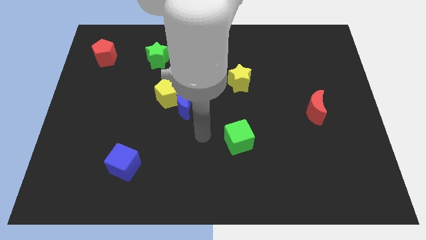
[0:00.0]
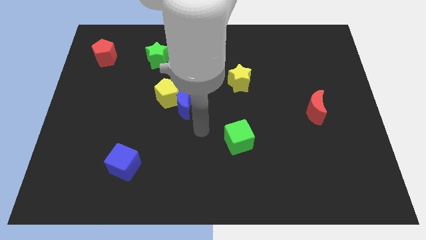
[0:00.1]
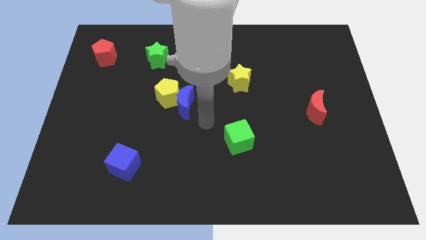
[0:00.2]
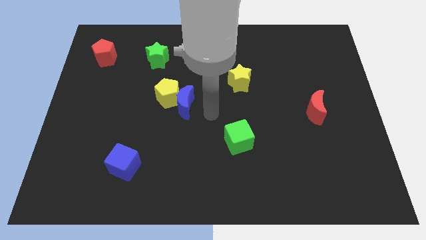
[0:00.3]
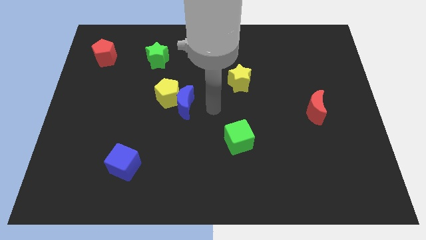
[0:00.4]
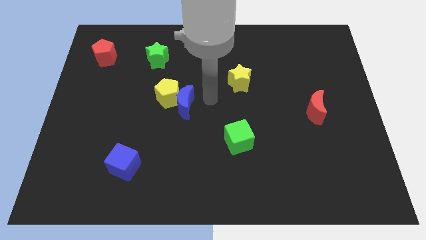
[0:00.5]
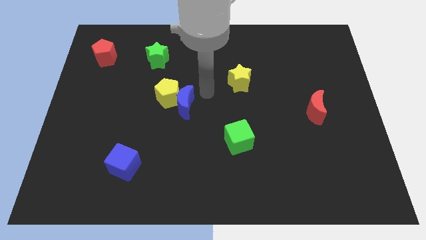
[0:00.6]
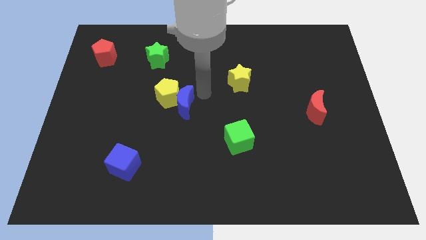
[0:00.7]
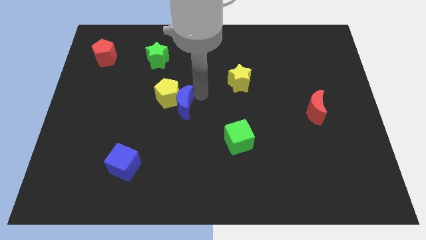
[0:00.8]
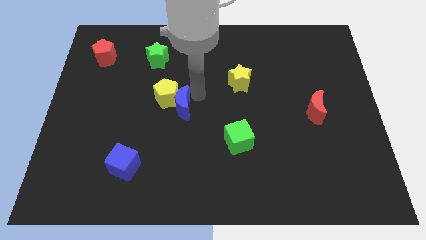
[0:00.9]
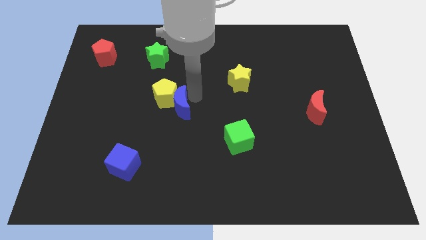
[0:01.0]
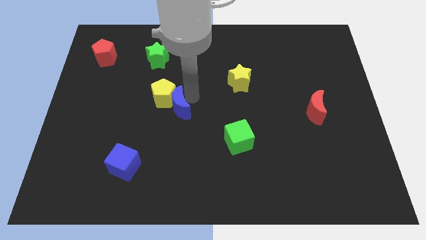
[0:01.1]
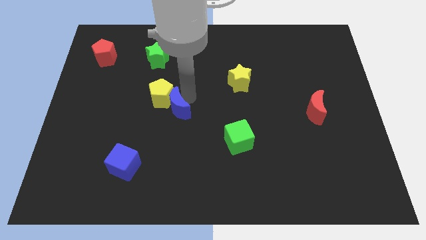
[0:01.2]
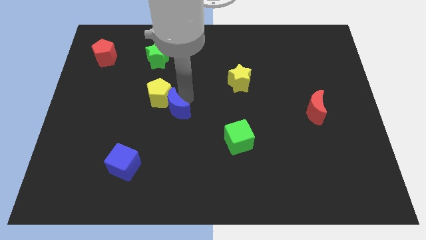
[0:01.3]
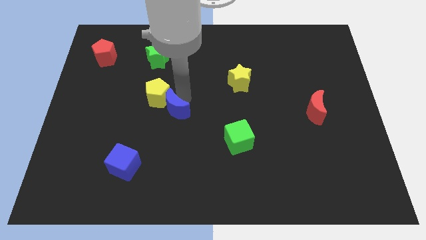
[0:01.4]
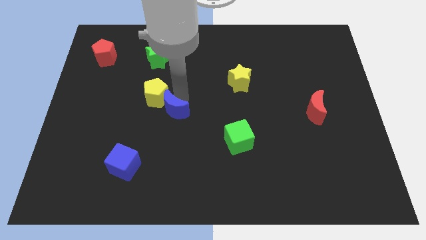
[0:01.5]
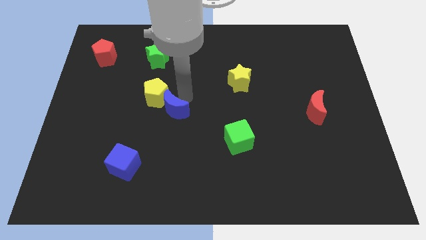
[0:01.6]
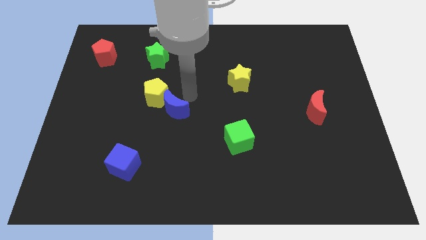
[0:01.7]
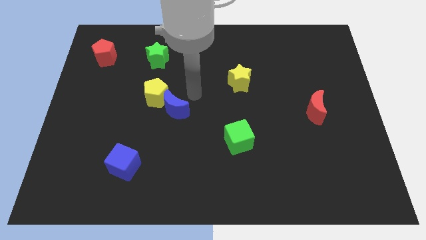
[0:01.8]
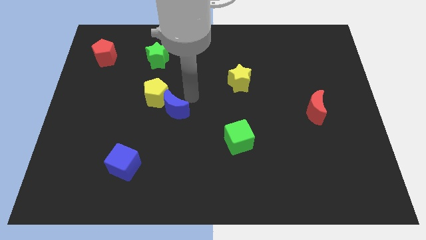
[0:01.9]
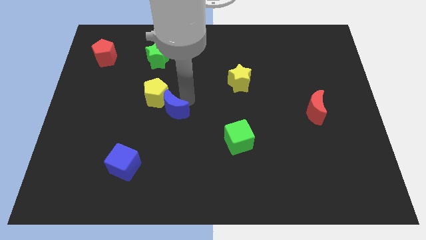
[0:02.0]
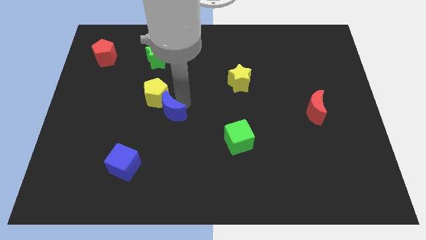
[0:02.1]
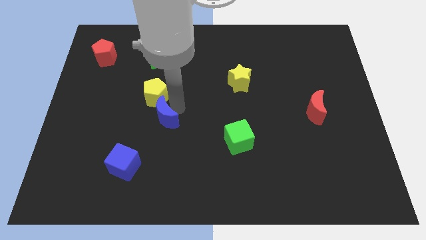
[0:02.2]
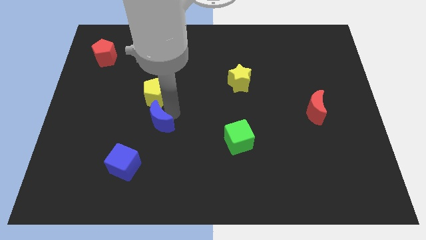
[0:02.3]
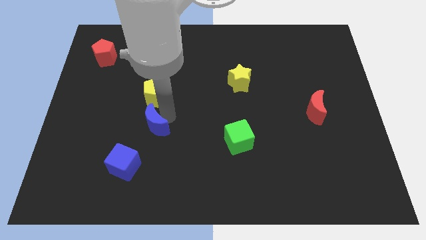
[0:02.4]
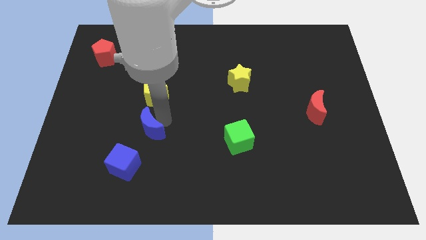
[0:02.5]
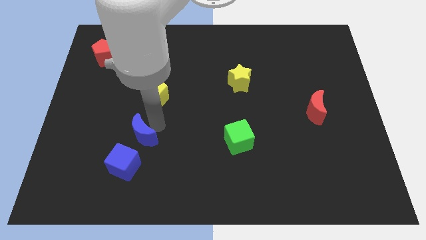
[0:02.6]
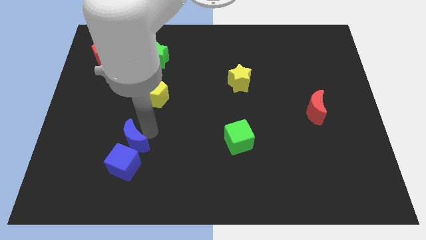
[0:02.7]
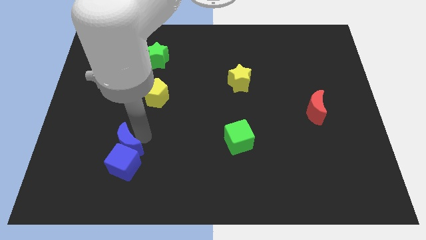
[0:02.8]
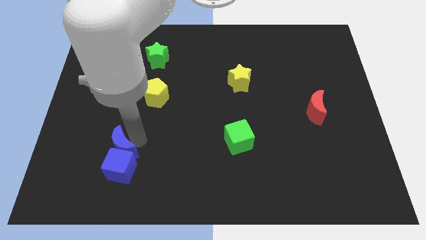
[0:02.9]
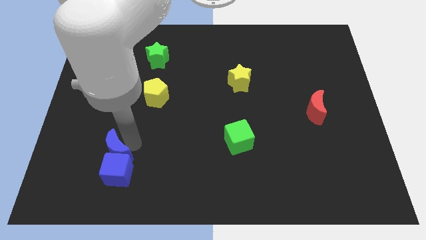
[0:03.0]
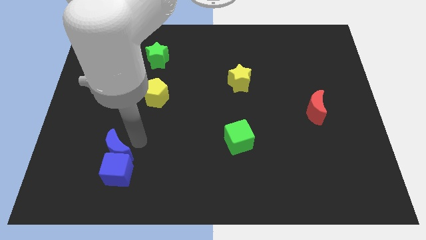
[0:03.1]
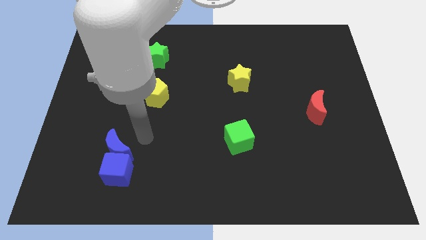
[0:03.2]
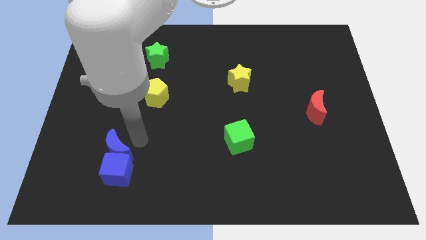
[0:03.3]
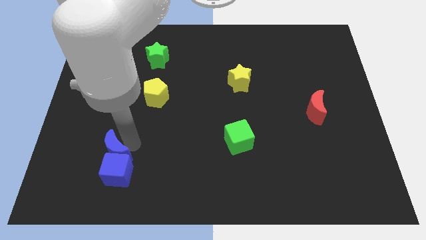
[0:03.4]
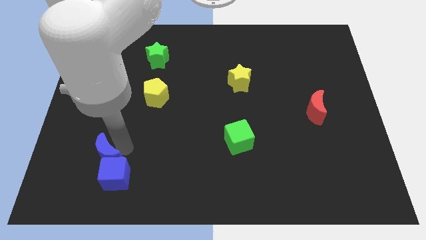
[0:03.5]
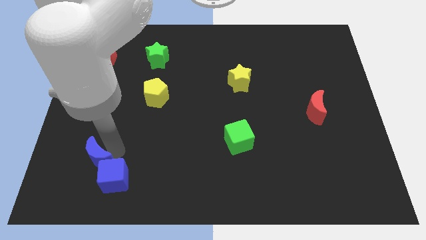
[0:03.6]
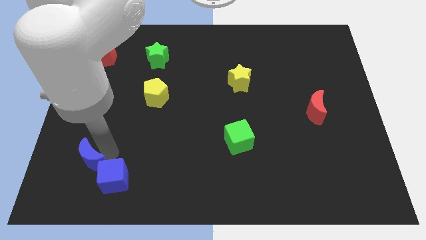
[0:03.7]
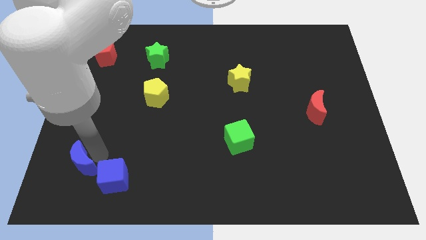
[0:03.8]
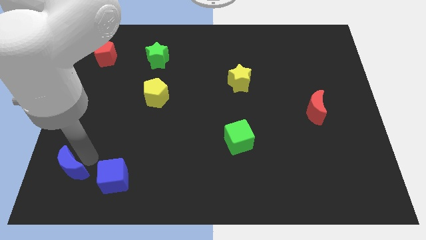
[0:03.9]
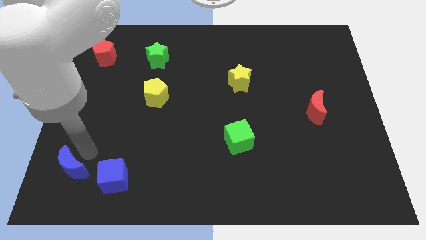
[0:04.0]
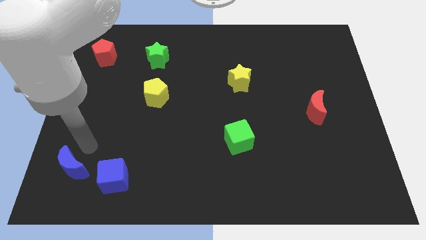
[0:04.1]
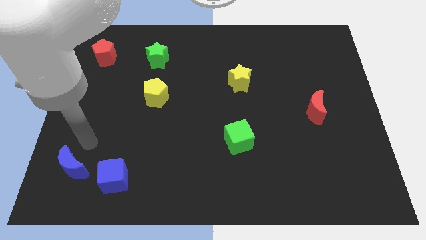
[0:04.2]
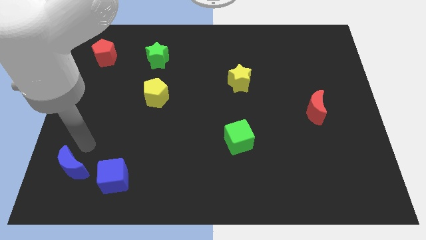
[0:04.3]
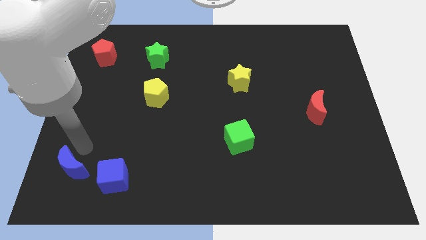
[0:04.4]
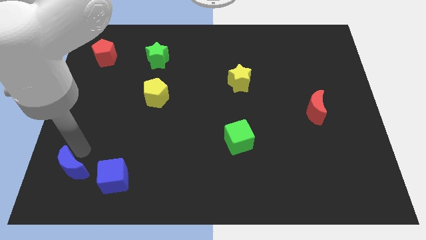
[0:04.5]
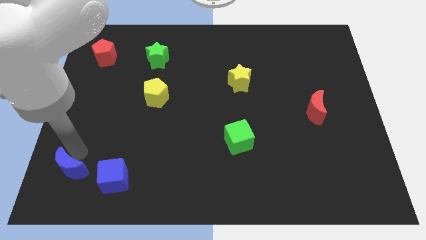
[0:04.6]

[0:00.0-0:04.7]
slide the blue moon to the bottom left corner

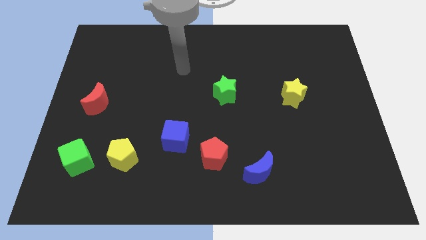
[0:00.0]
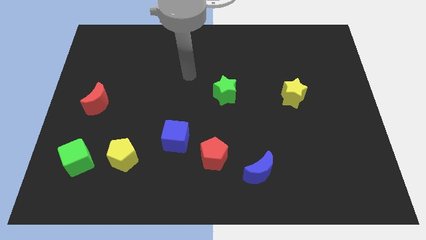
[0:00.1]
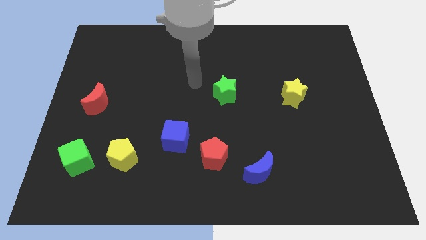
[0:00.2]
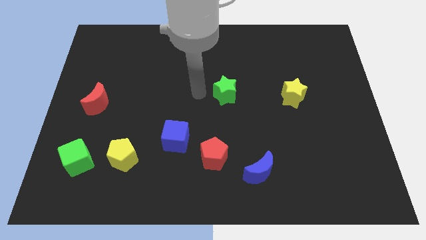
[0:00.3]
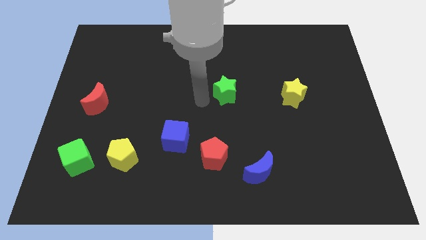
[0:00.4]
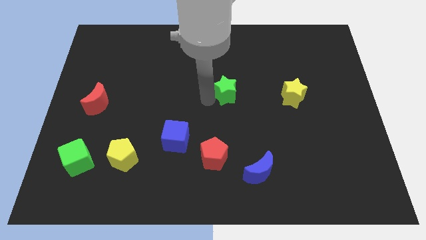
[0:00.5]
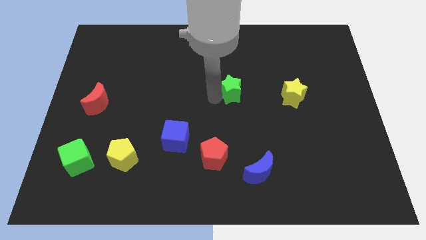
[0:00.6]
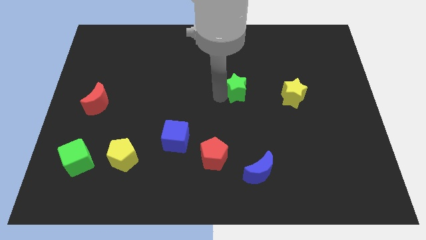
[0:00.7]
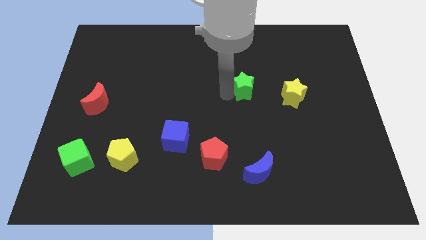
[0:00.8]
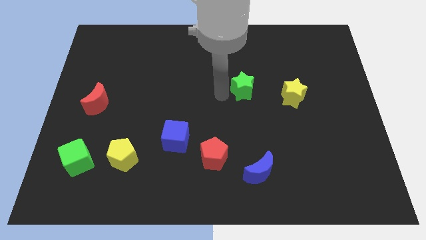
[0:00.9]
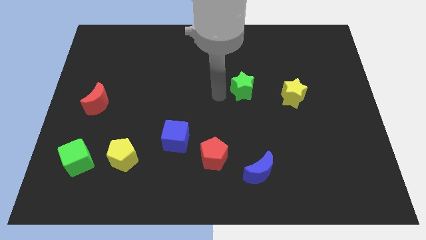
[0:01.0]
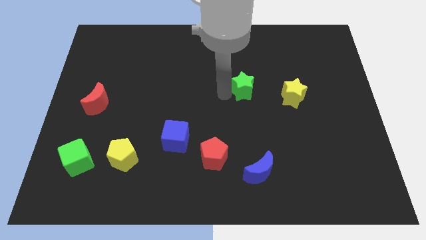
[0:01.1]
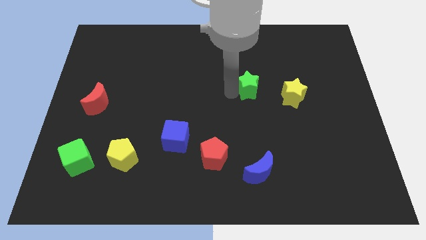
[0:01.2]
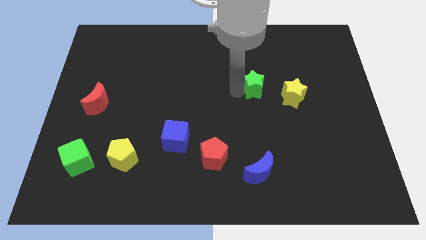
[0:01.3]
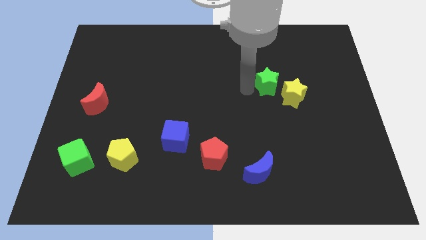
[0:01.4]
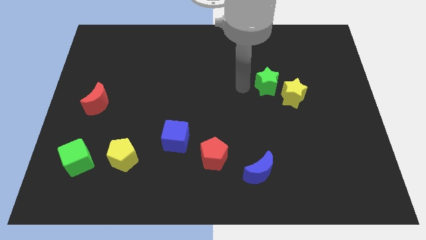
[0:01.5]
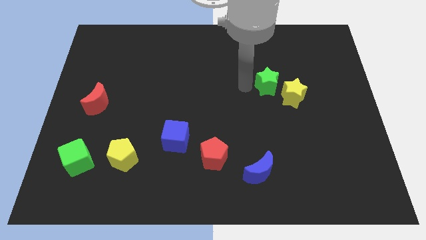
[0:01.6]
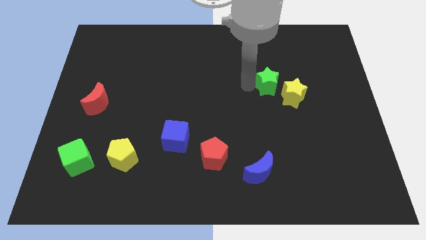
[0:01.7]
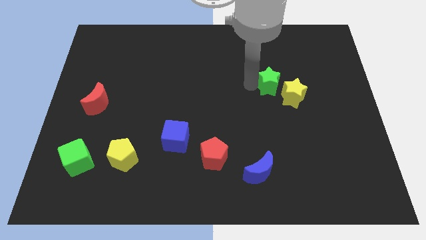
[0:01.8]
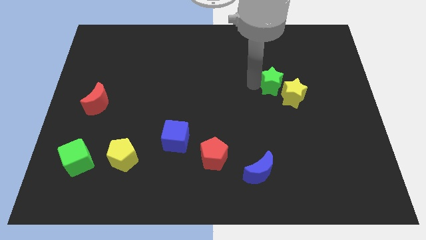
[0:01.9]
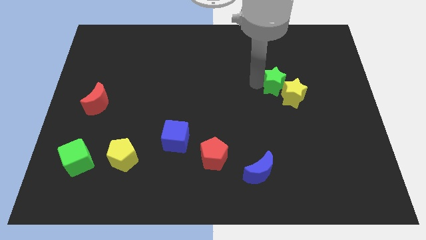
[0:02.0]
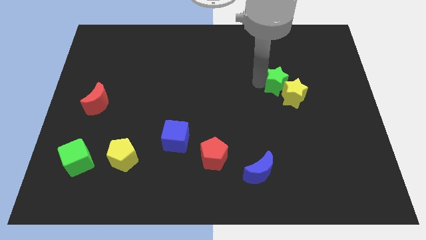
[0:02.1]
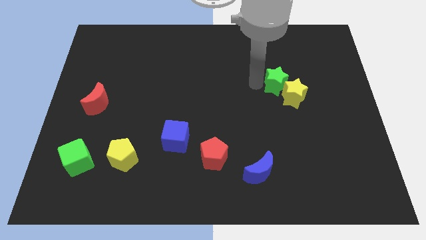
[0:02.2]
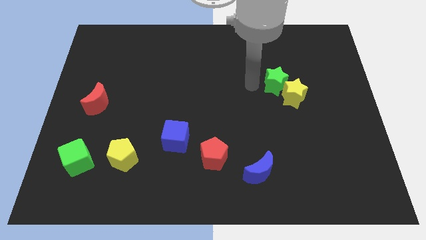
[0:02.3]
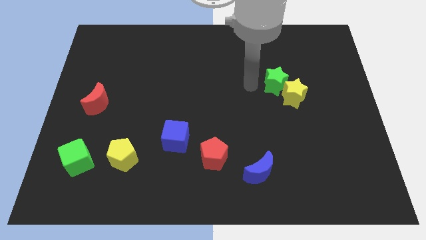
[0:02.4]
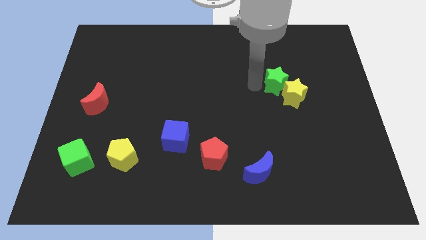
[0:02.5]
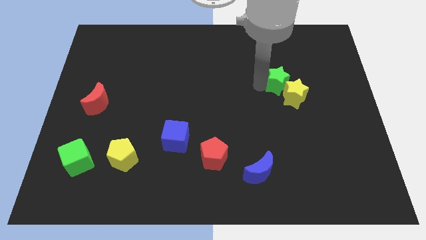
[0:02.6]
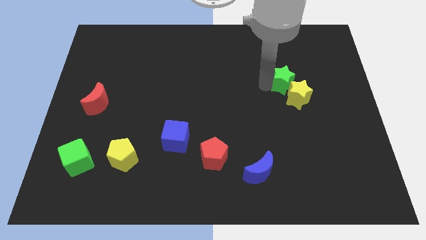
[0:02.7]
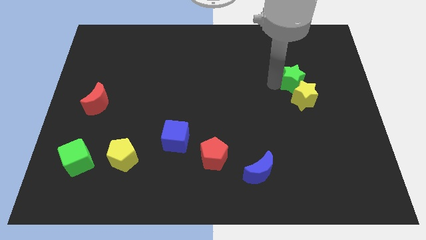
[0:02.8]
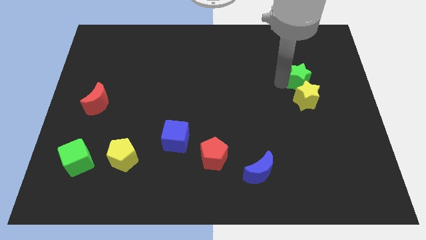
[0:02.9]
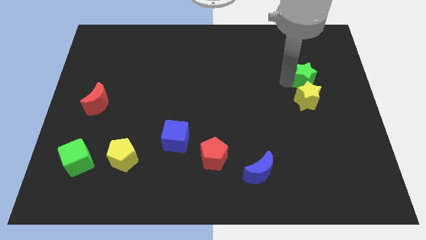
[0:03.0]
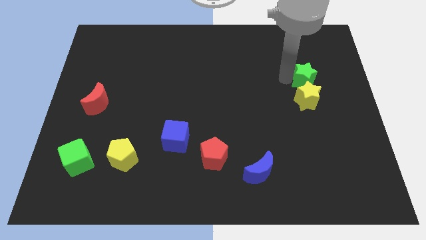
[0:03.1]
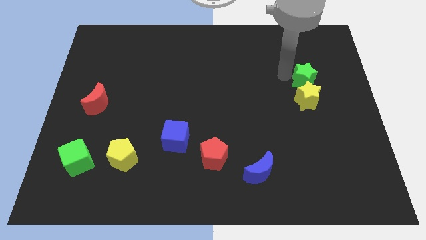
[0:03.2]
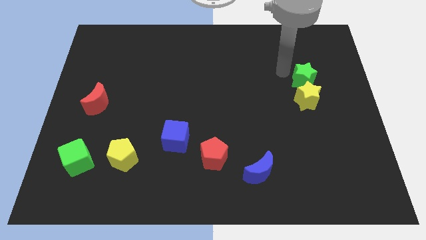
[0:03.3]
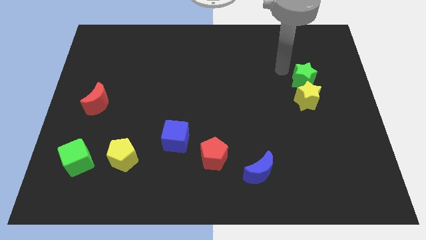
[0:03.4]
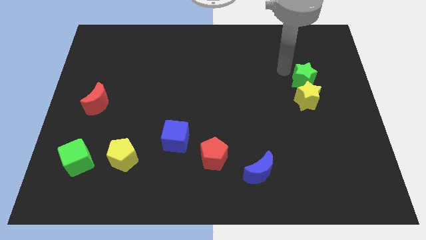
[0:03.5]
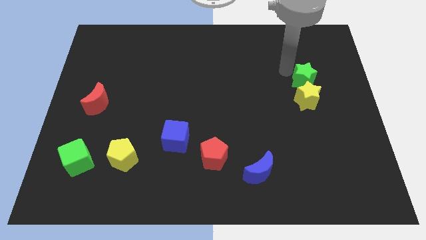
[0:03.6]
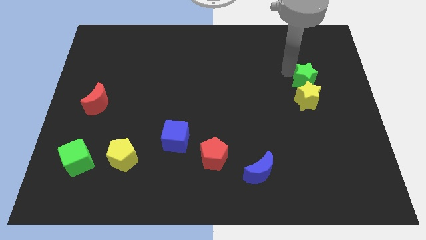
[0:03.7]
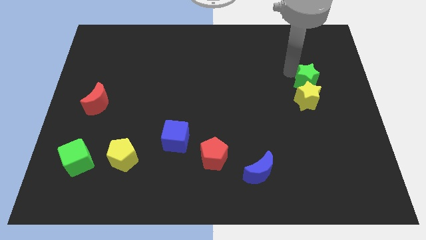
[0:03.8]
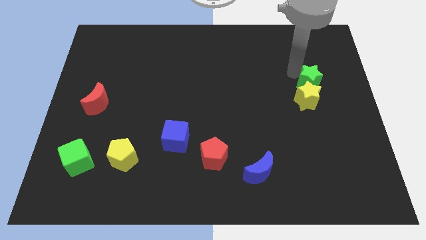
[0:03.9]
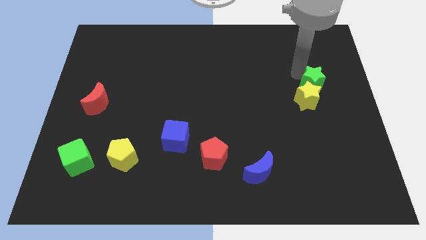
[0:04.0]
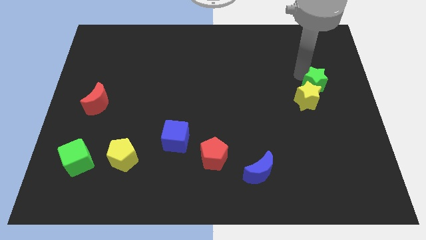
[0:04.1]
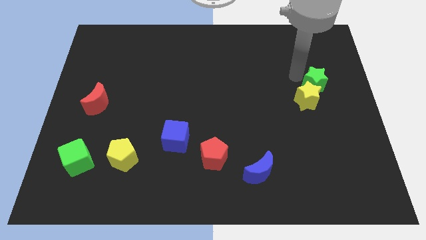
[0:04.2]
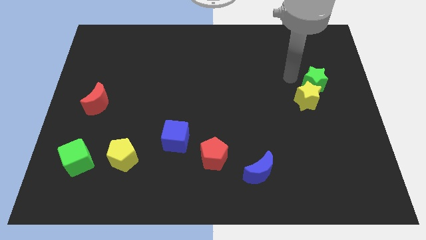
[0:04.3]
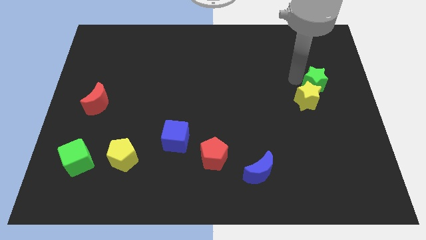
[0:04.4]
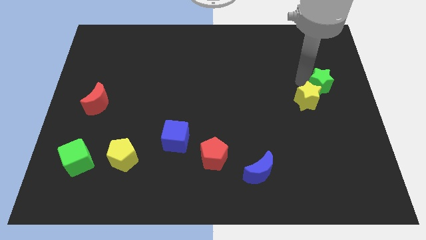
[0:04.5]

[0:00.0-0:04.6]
slide the green star to the right side
